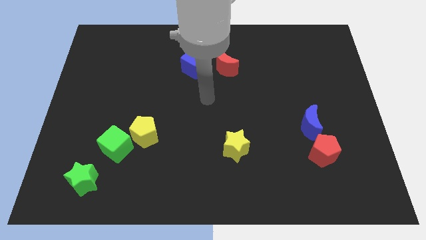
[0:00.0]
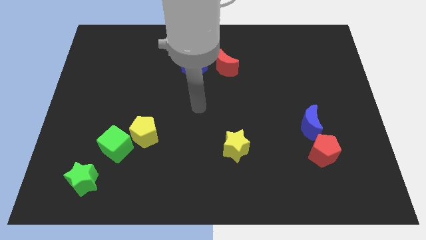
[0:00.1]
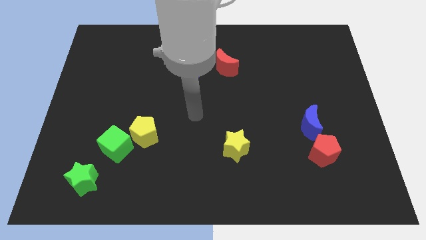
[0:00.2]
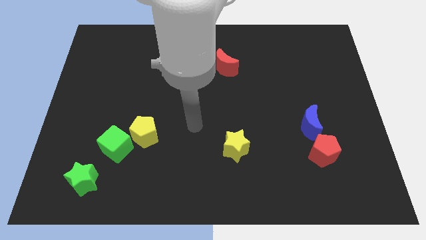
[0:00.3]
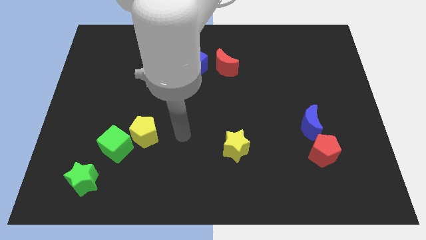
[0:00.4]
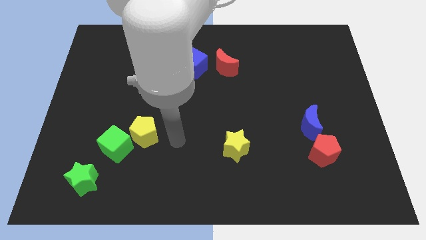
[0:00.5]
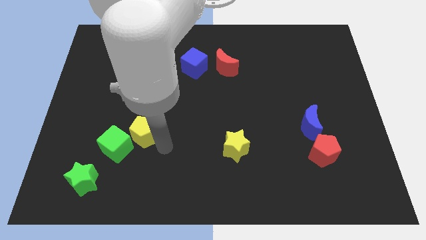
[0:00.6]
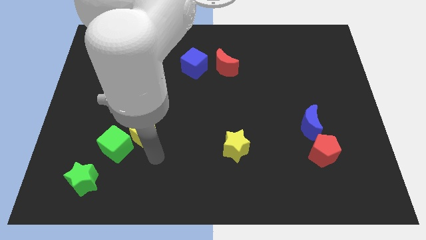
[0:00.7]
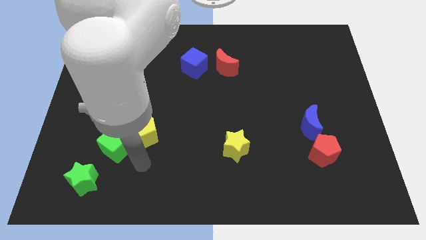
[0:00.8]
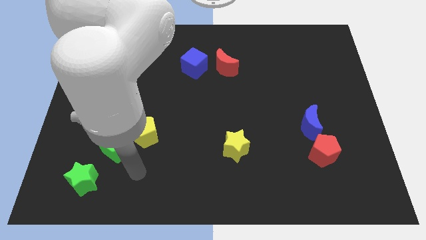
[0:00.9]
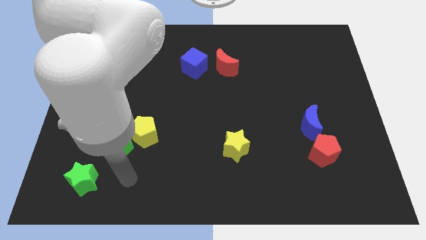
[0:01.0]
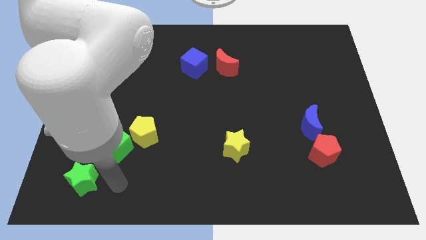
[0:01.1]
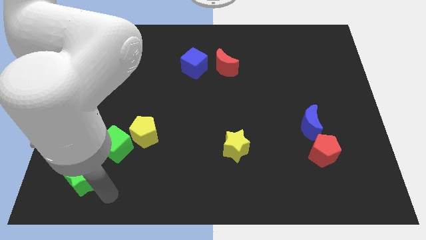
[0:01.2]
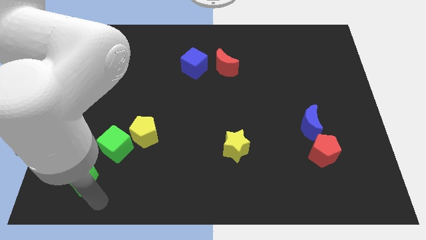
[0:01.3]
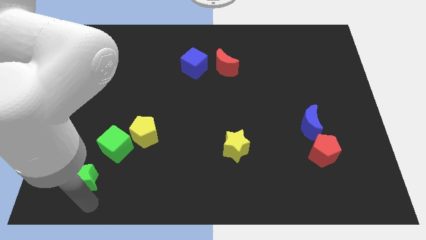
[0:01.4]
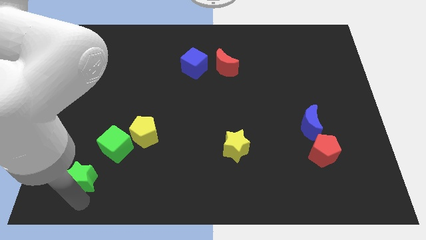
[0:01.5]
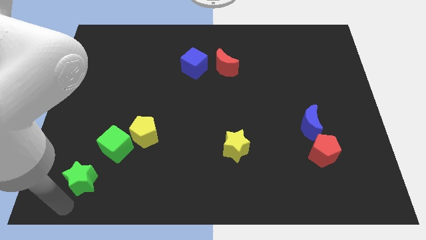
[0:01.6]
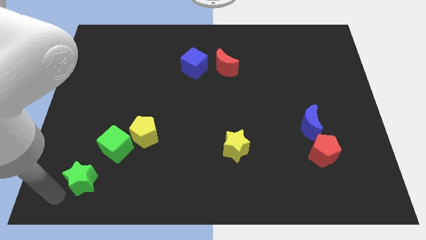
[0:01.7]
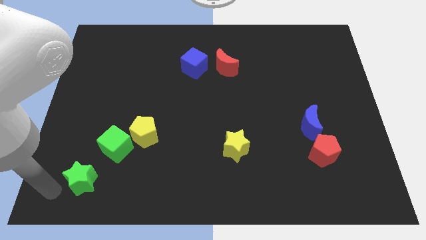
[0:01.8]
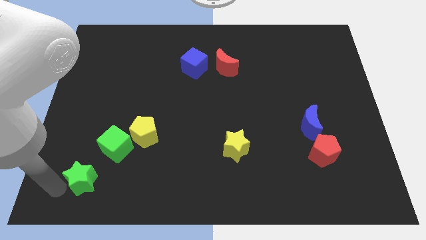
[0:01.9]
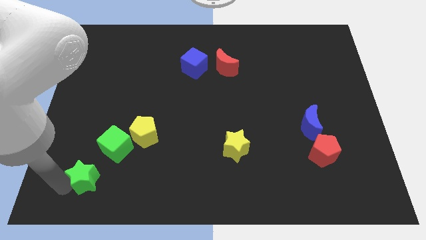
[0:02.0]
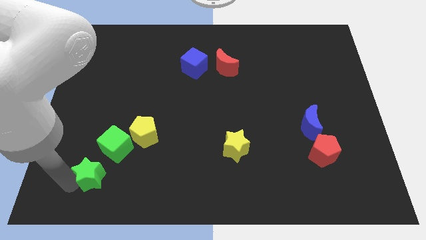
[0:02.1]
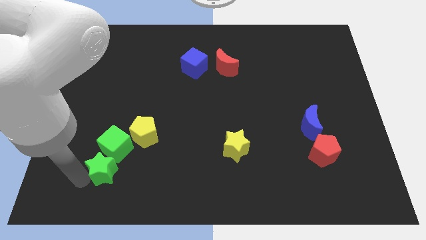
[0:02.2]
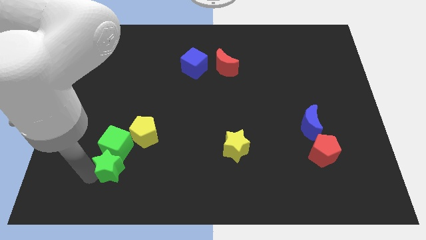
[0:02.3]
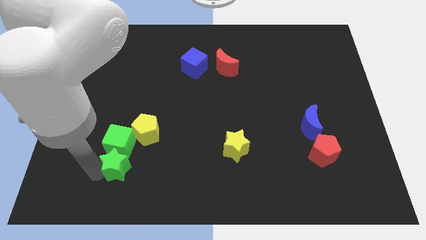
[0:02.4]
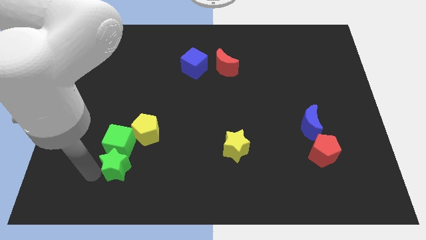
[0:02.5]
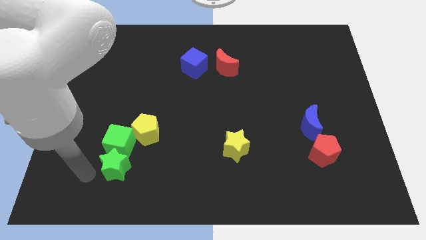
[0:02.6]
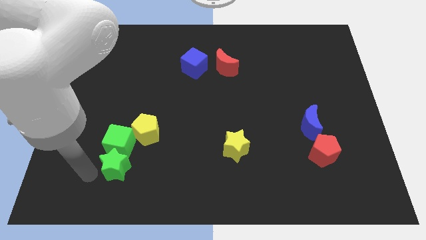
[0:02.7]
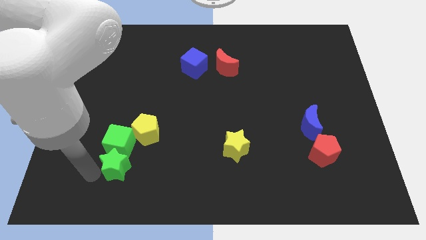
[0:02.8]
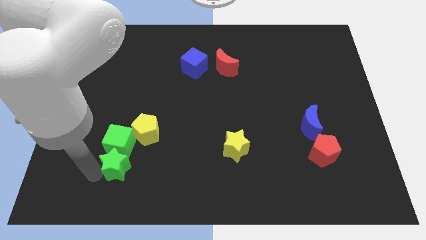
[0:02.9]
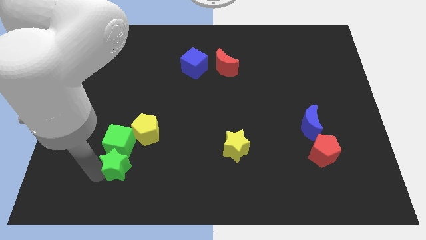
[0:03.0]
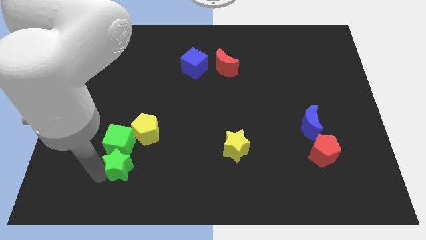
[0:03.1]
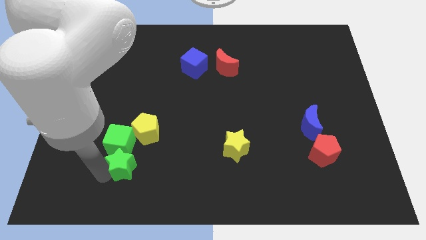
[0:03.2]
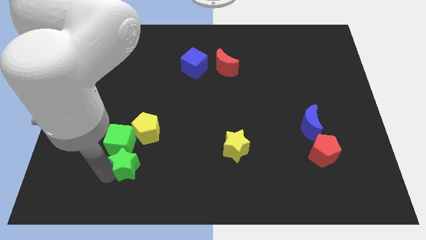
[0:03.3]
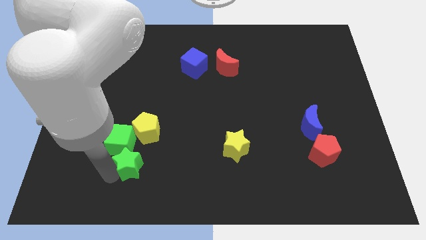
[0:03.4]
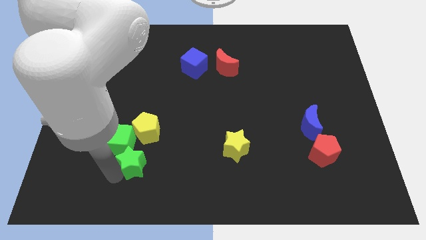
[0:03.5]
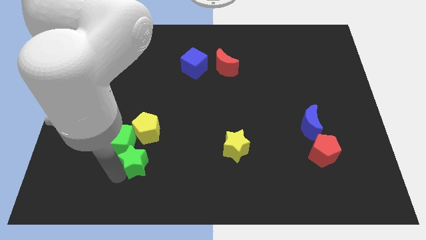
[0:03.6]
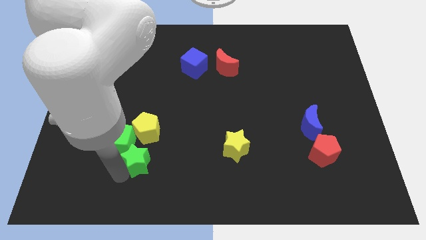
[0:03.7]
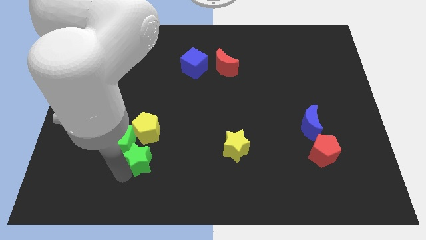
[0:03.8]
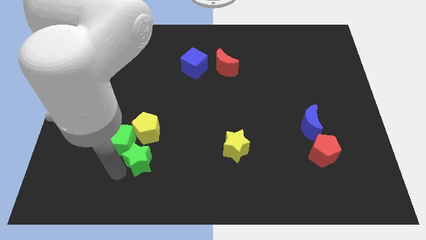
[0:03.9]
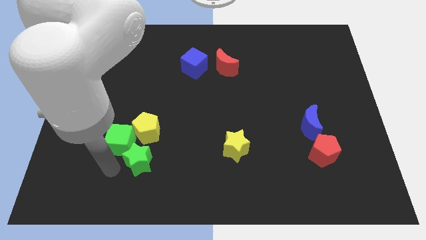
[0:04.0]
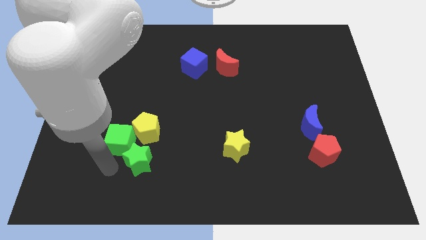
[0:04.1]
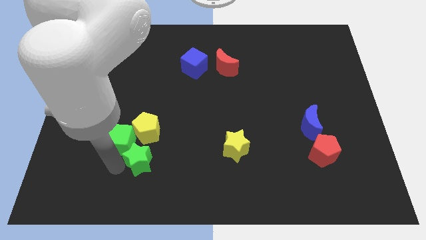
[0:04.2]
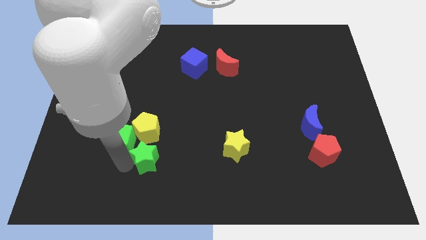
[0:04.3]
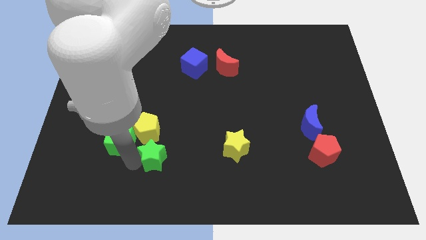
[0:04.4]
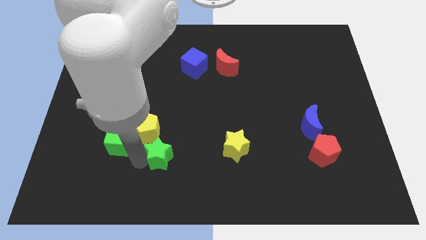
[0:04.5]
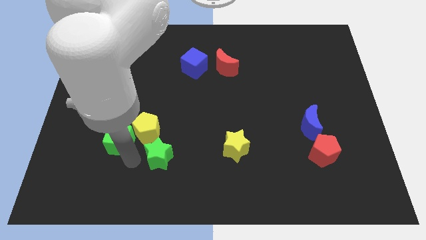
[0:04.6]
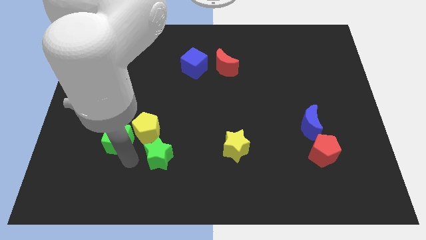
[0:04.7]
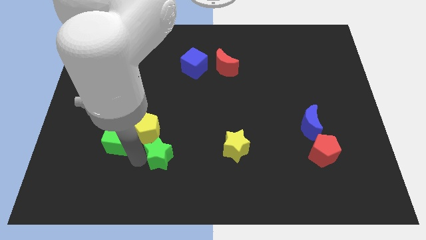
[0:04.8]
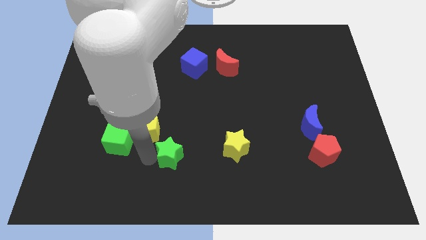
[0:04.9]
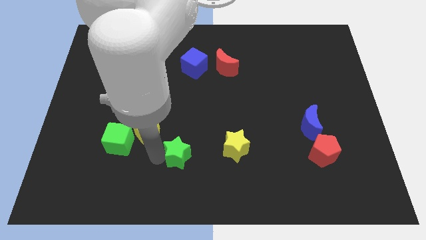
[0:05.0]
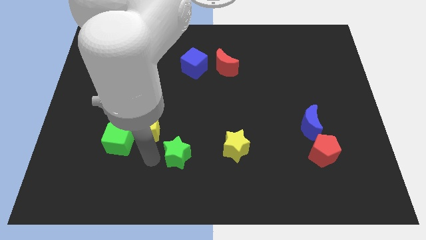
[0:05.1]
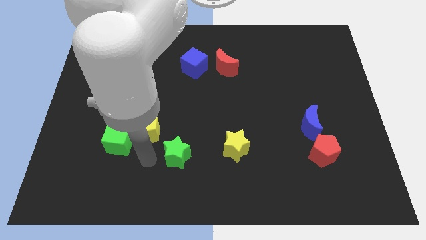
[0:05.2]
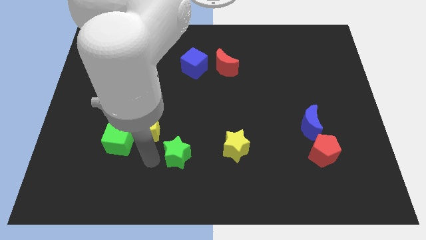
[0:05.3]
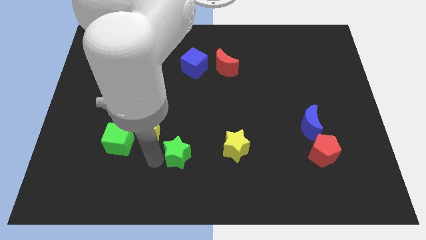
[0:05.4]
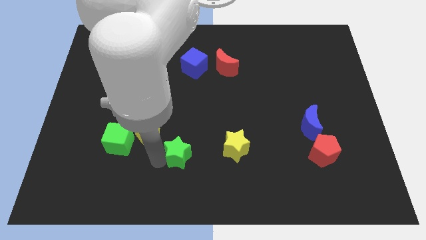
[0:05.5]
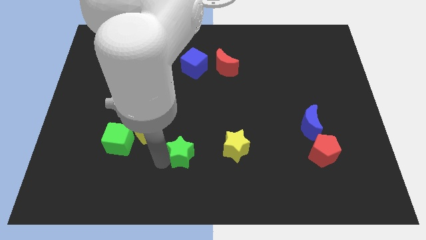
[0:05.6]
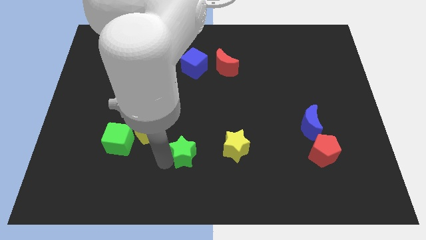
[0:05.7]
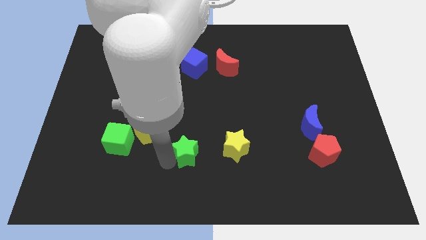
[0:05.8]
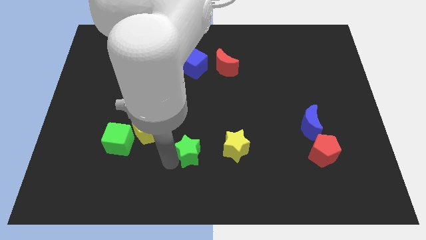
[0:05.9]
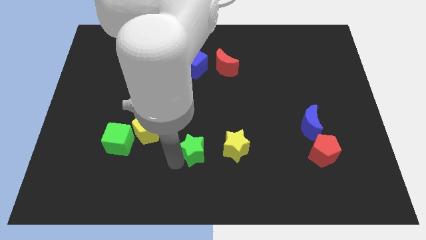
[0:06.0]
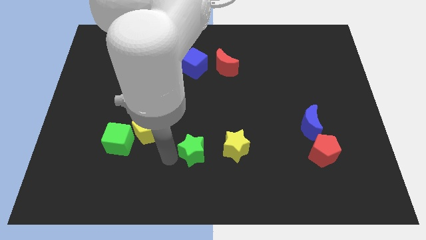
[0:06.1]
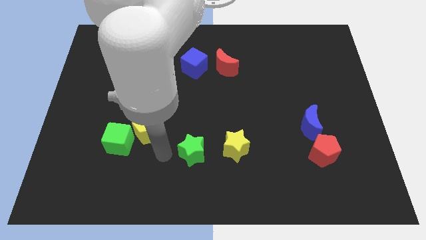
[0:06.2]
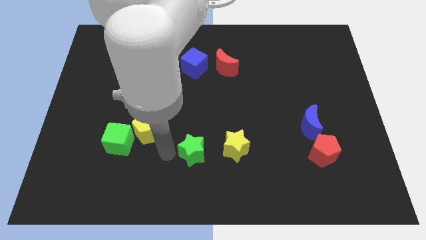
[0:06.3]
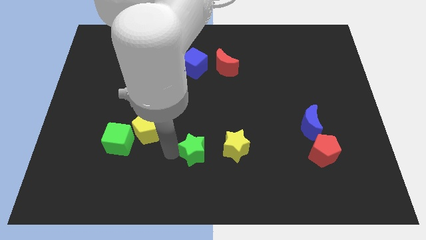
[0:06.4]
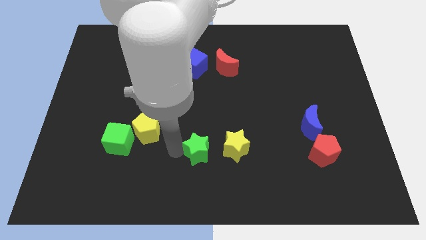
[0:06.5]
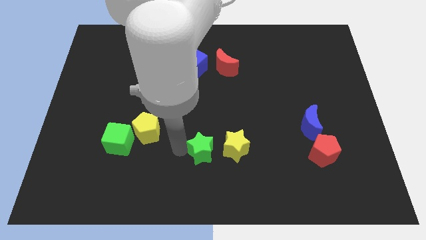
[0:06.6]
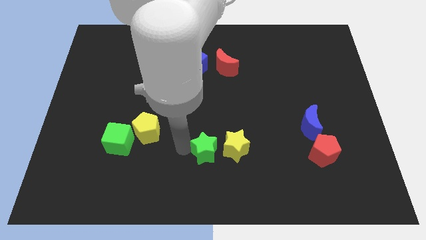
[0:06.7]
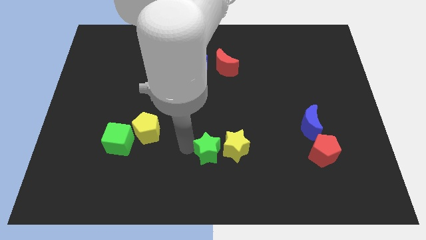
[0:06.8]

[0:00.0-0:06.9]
put the green star close to the yellow star
